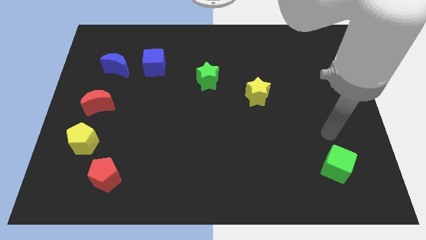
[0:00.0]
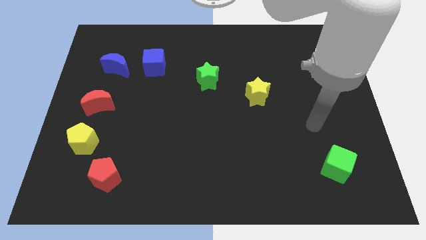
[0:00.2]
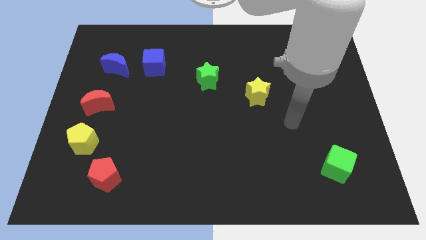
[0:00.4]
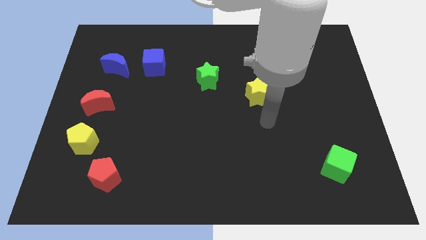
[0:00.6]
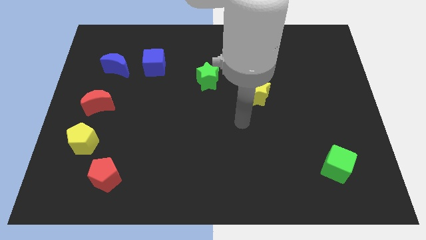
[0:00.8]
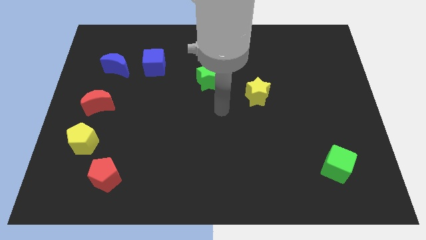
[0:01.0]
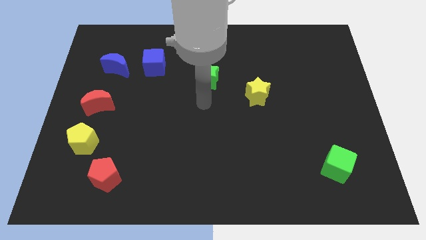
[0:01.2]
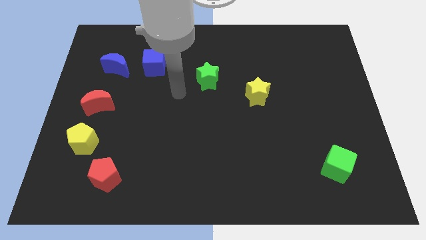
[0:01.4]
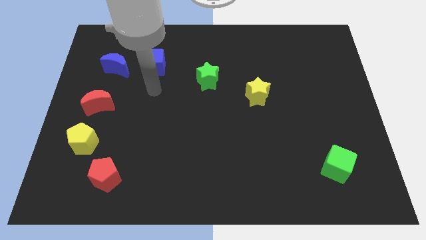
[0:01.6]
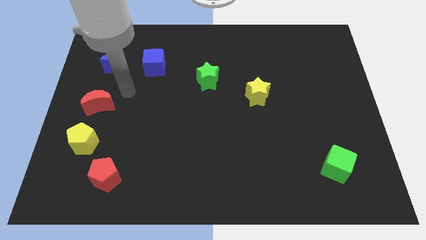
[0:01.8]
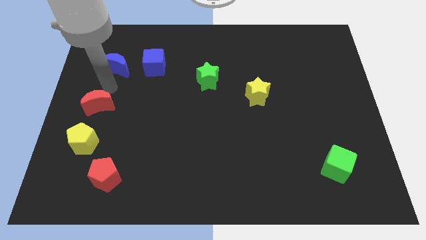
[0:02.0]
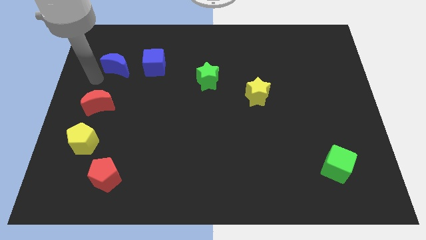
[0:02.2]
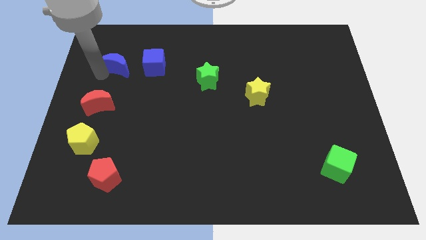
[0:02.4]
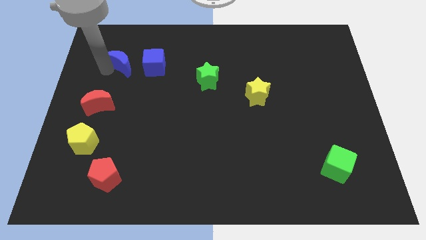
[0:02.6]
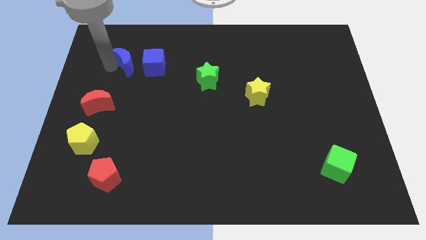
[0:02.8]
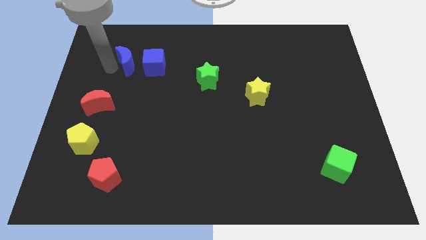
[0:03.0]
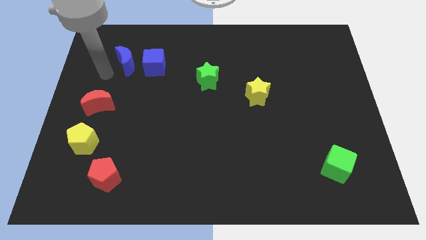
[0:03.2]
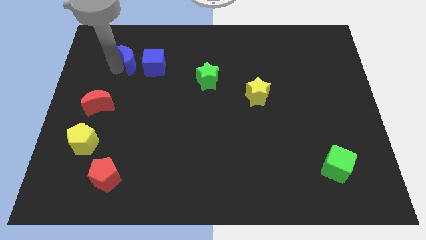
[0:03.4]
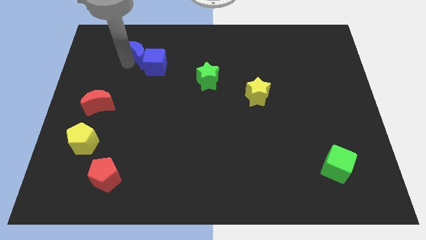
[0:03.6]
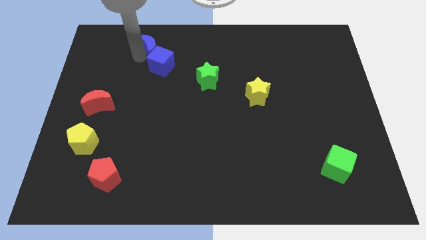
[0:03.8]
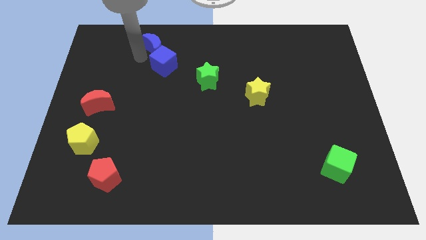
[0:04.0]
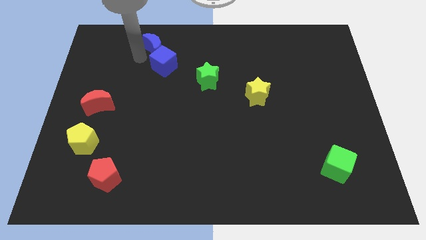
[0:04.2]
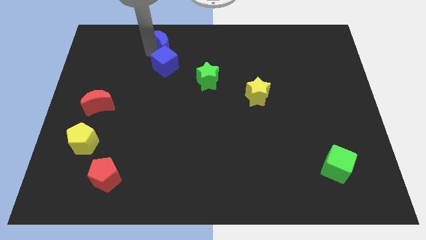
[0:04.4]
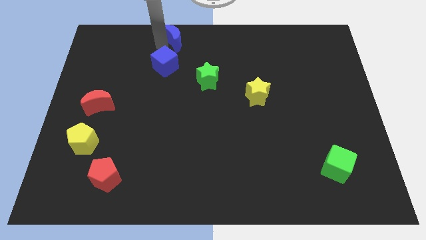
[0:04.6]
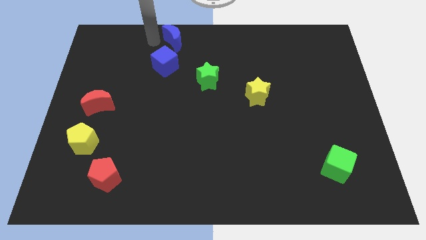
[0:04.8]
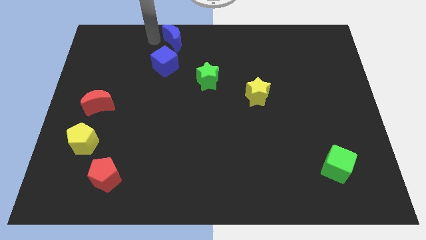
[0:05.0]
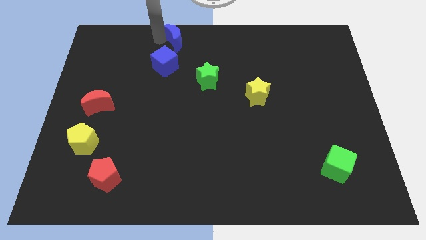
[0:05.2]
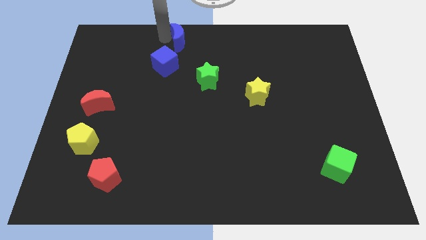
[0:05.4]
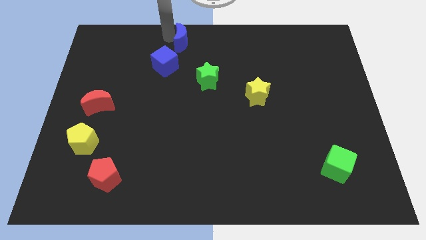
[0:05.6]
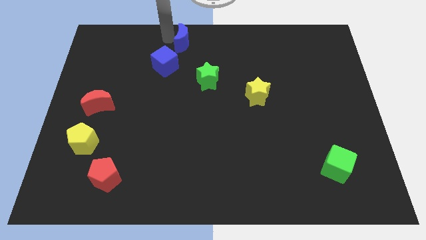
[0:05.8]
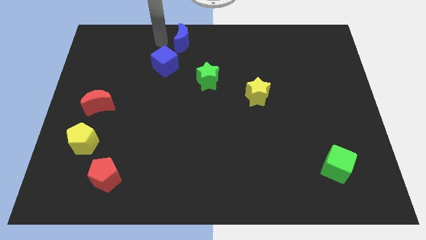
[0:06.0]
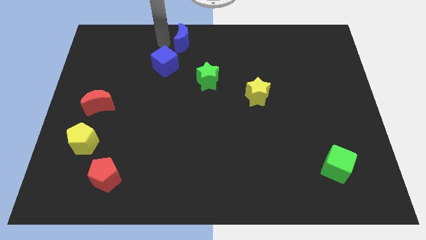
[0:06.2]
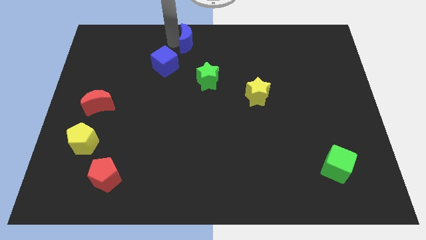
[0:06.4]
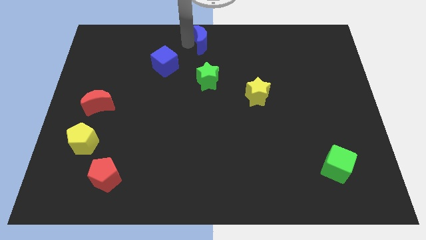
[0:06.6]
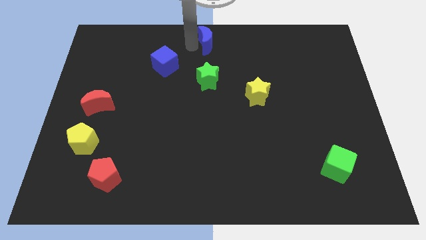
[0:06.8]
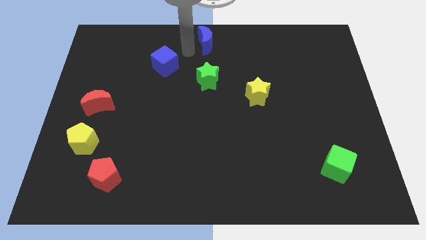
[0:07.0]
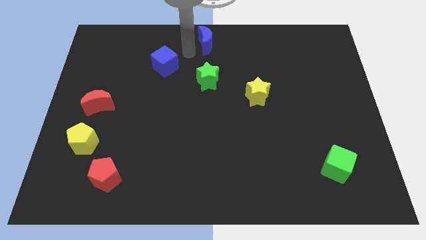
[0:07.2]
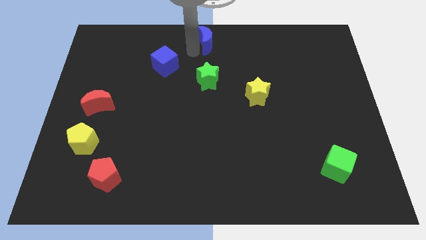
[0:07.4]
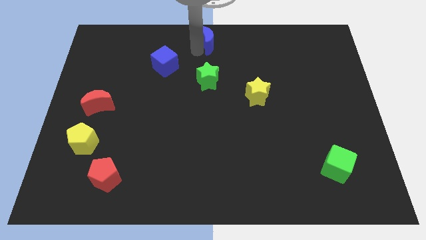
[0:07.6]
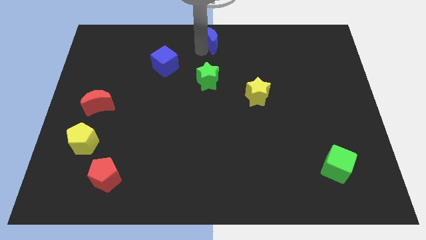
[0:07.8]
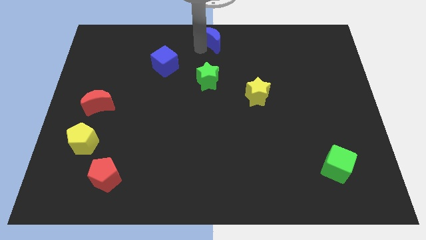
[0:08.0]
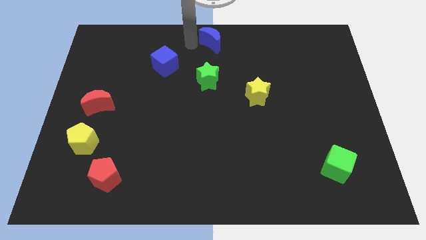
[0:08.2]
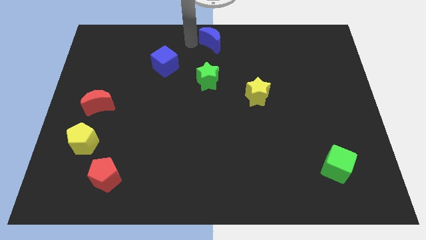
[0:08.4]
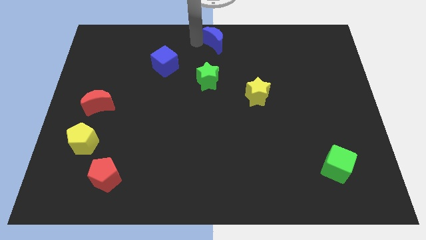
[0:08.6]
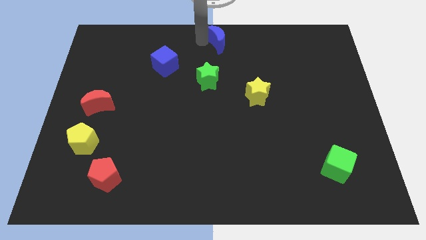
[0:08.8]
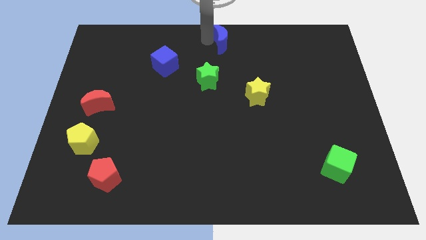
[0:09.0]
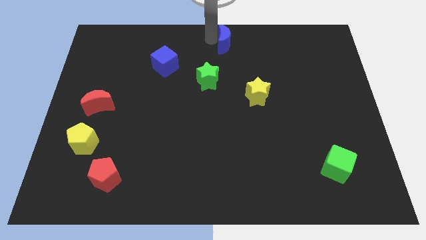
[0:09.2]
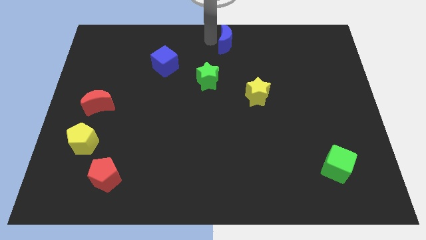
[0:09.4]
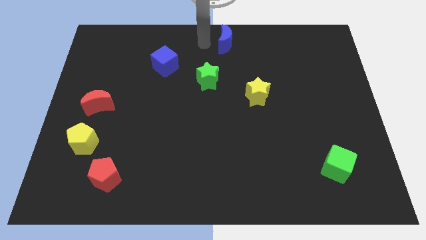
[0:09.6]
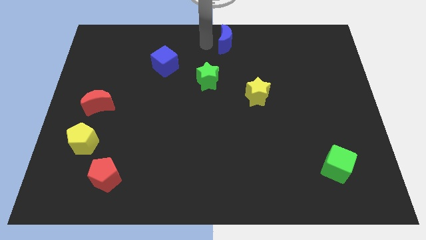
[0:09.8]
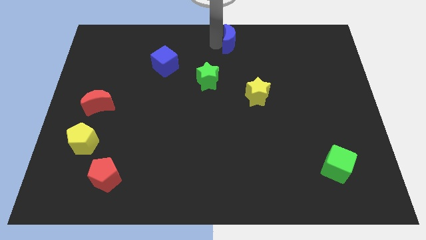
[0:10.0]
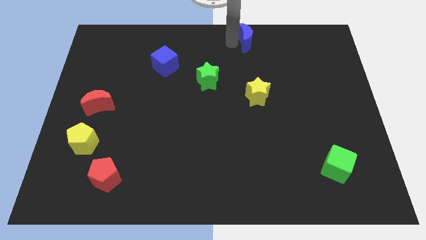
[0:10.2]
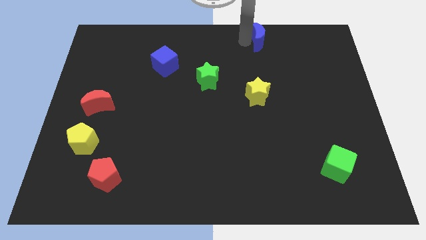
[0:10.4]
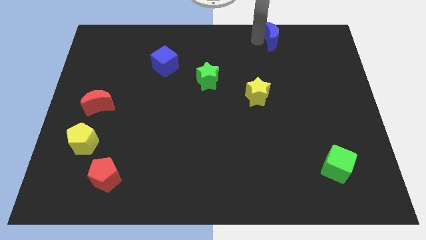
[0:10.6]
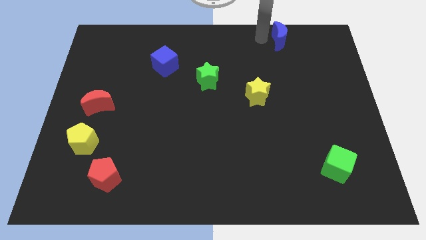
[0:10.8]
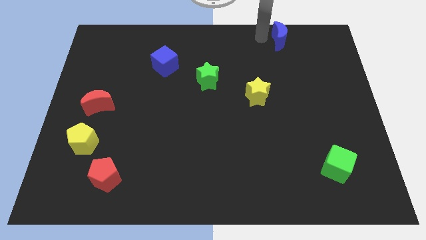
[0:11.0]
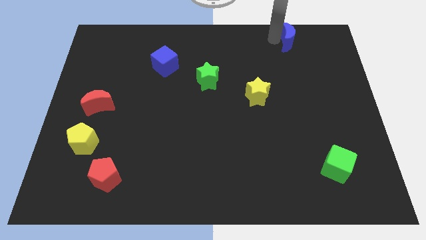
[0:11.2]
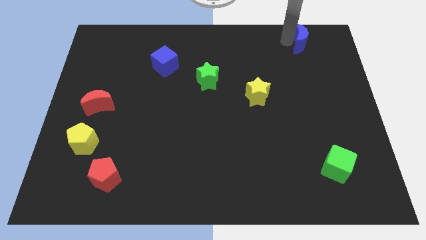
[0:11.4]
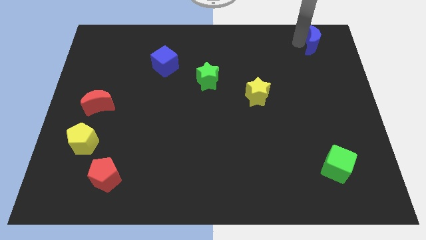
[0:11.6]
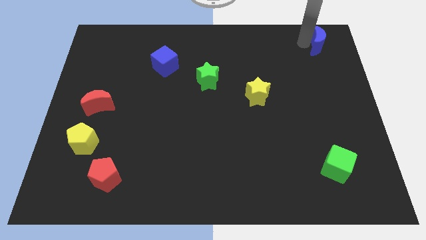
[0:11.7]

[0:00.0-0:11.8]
slide the blue moon to the top right
